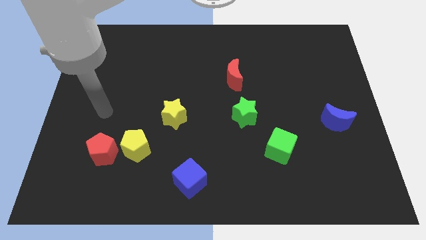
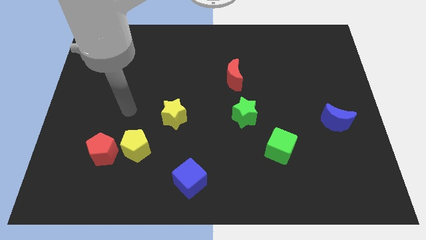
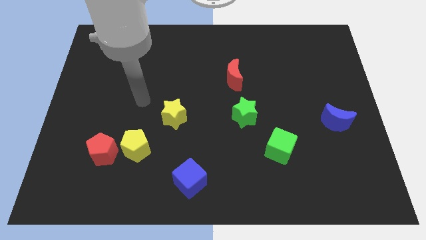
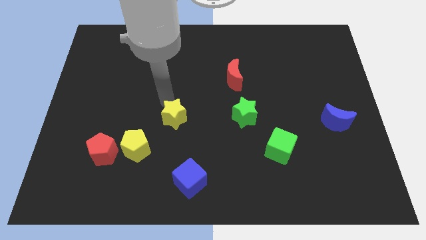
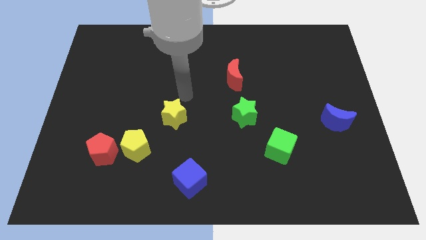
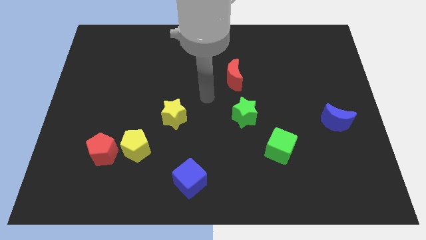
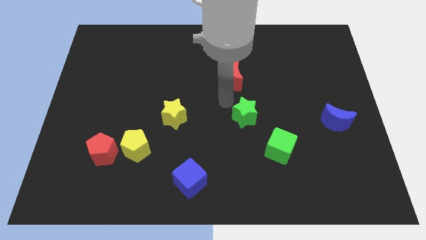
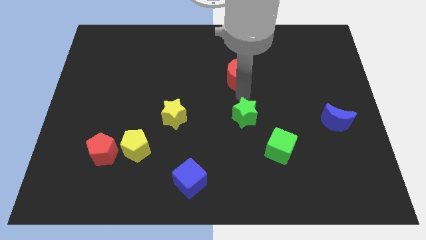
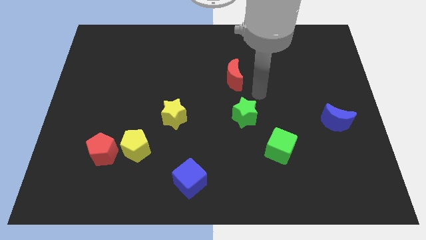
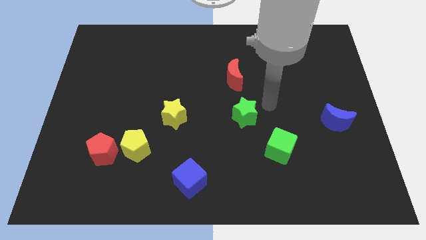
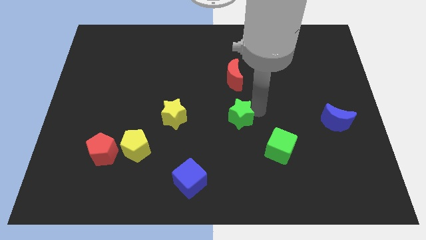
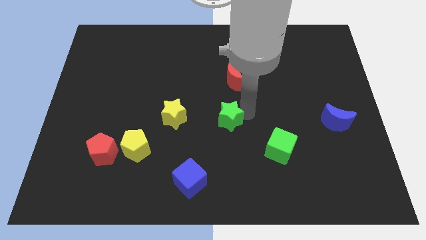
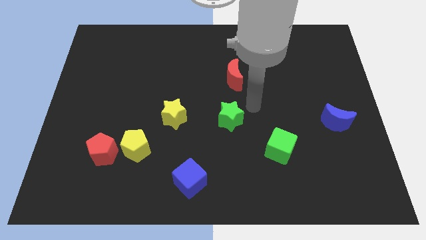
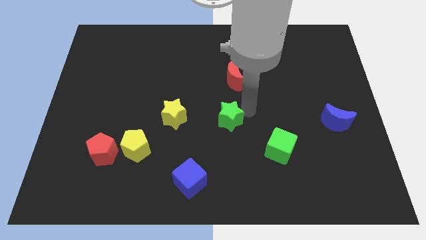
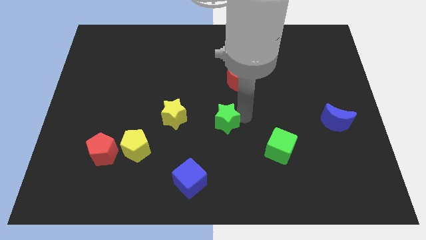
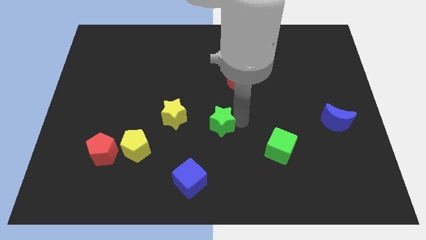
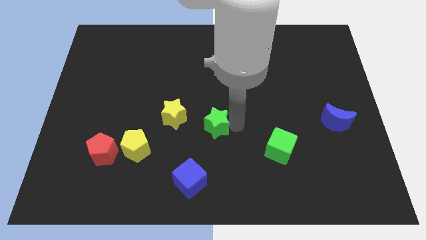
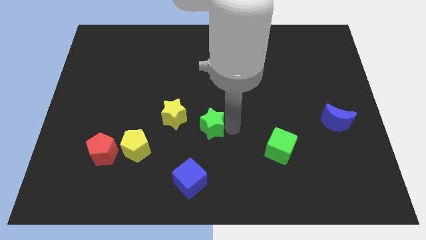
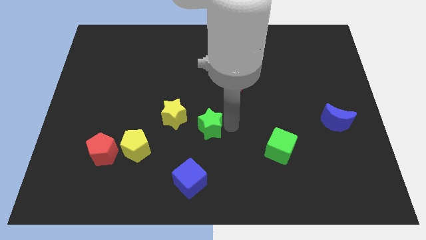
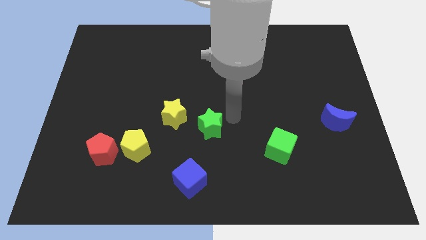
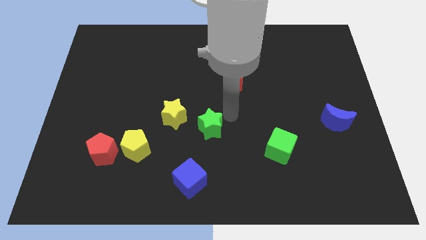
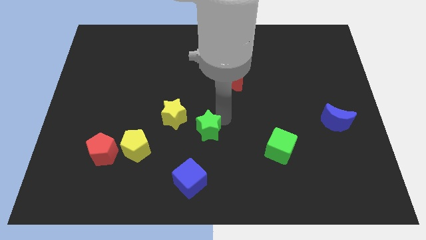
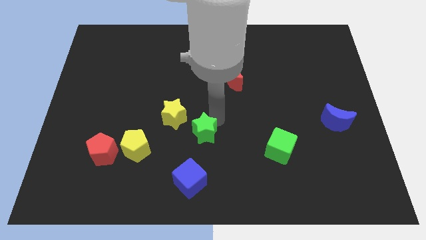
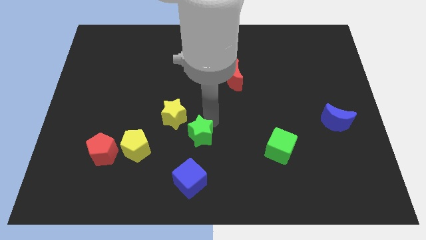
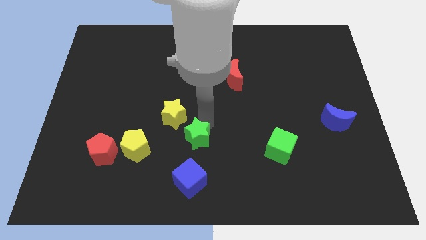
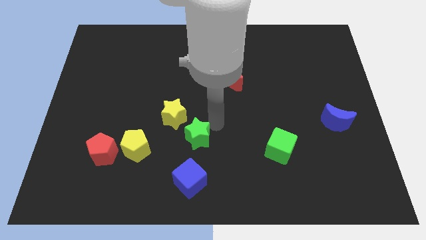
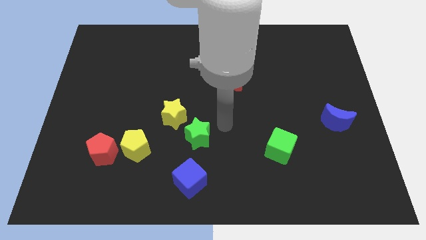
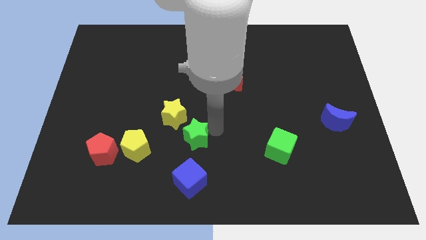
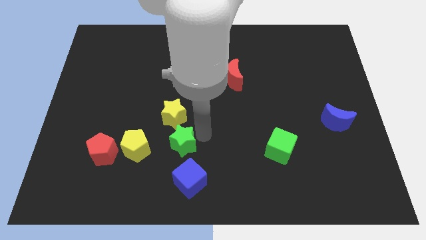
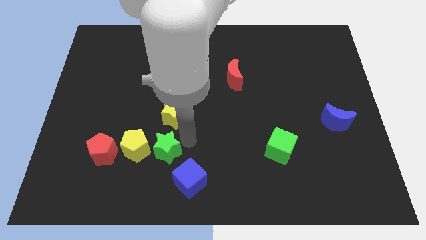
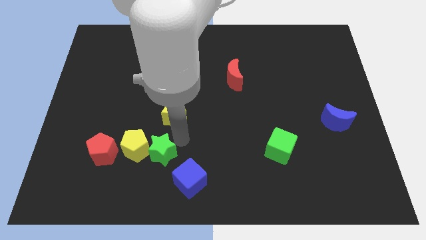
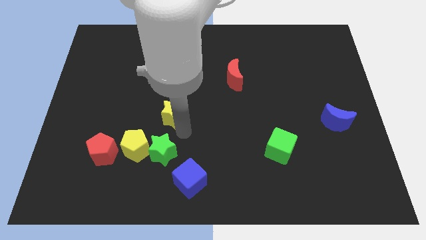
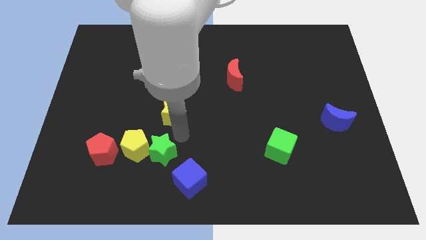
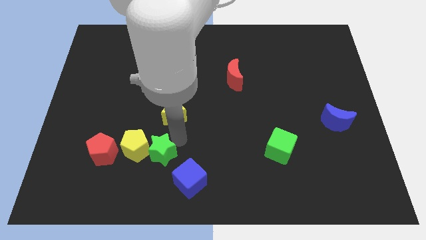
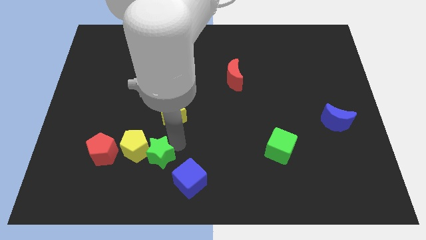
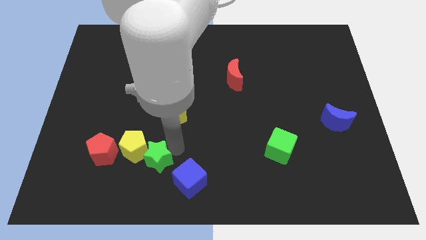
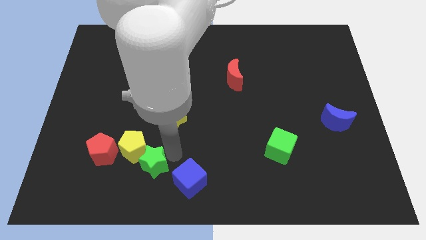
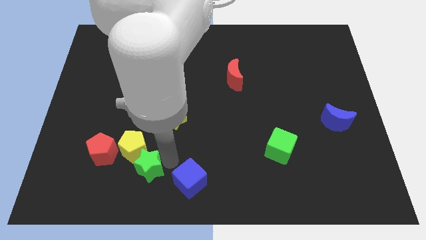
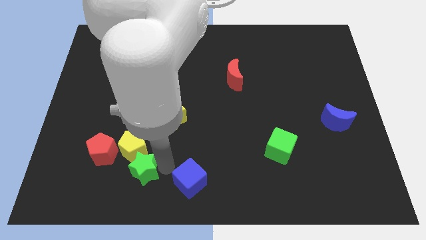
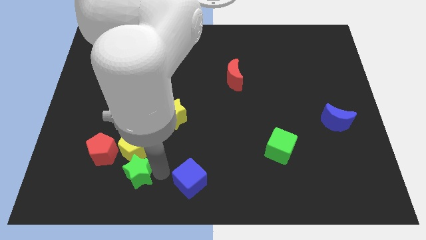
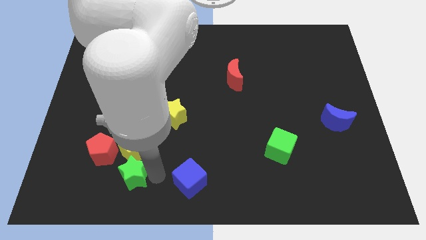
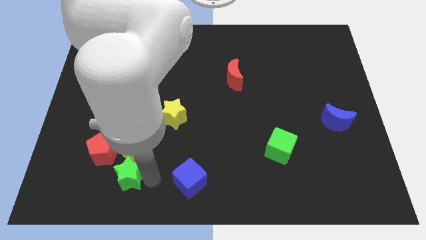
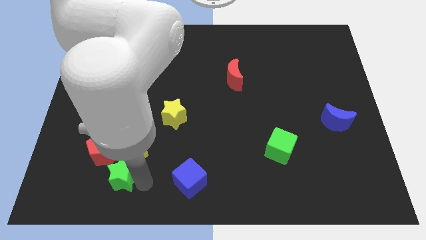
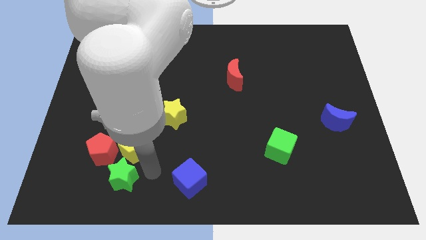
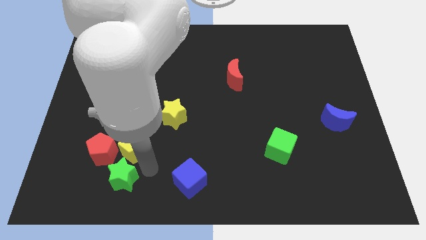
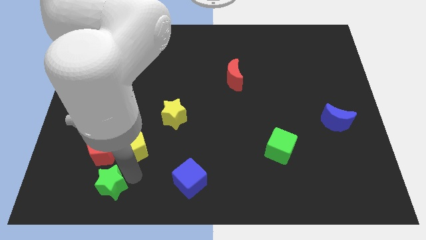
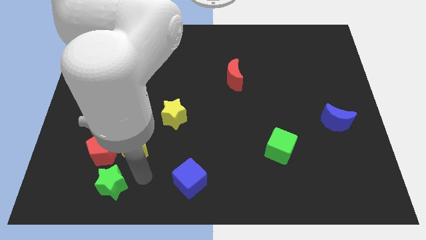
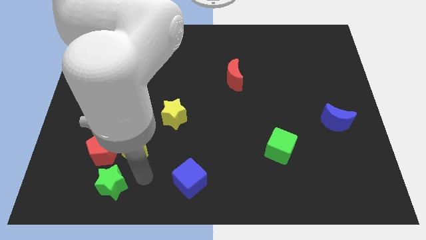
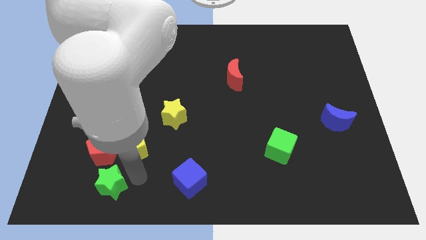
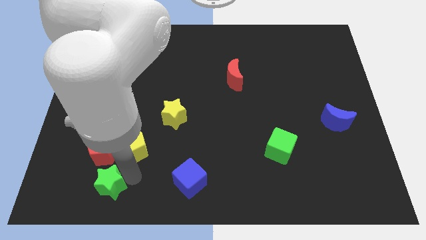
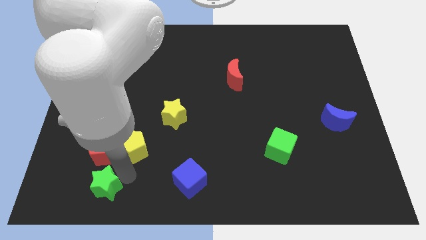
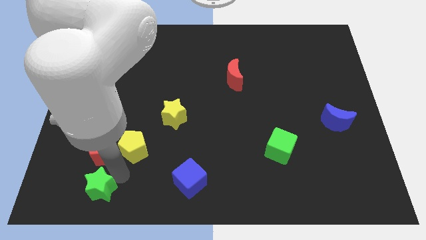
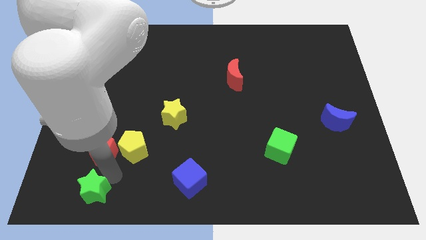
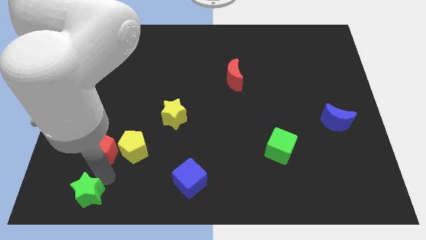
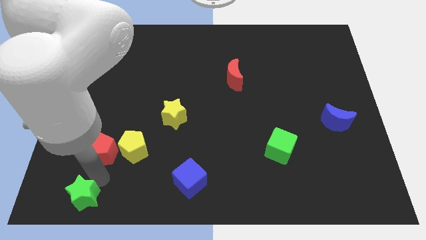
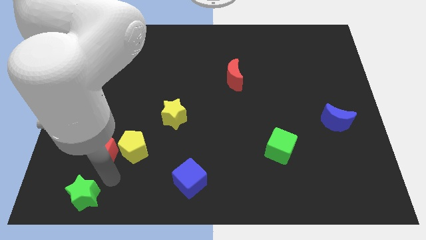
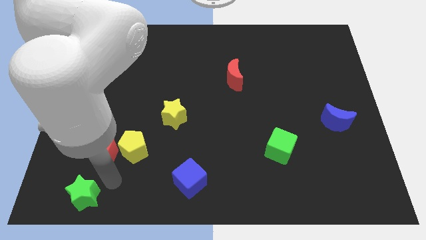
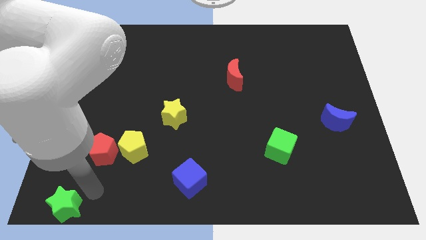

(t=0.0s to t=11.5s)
slide the green star to the bottom left of the board

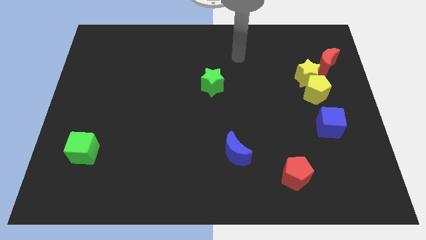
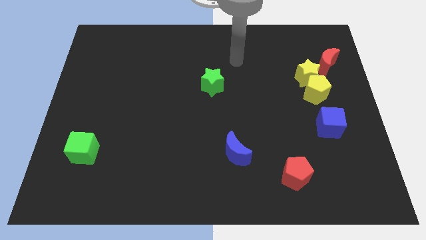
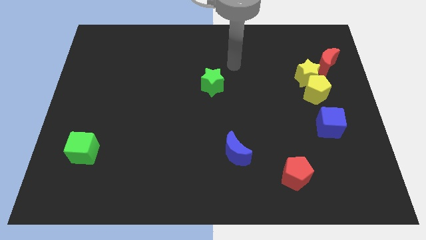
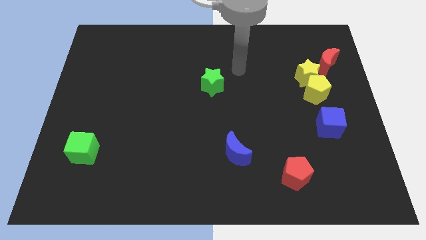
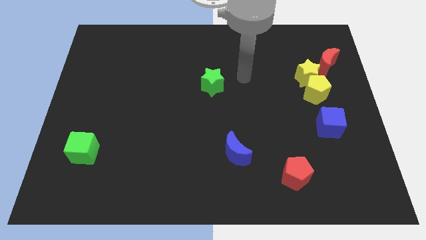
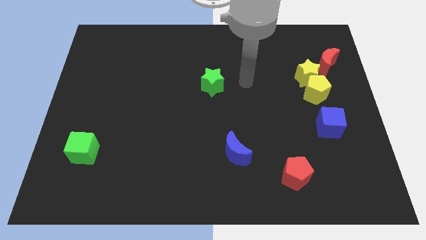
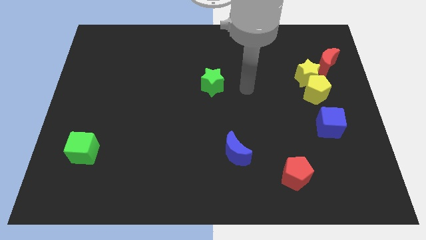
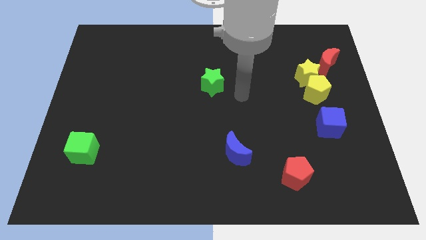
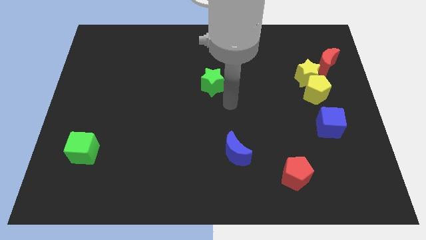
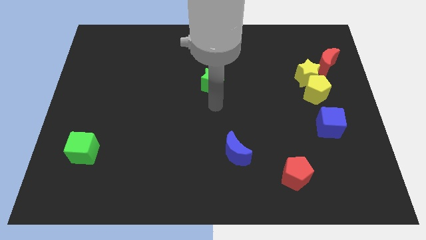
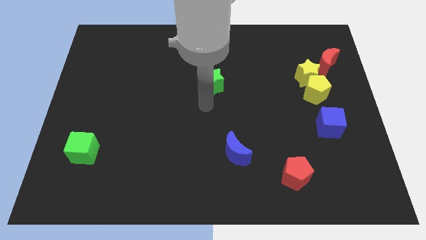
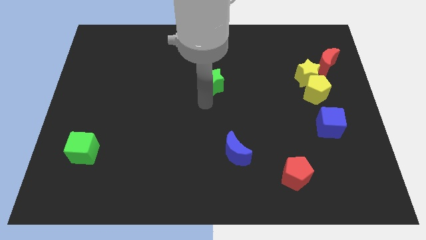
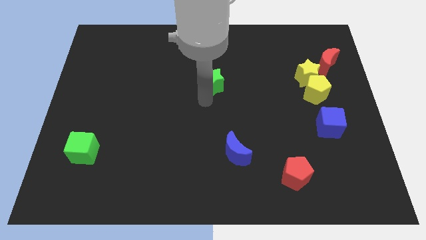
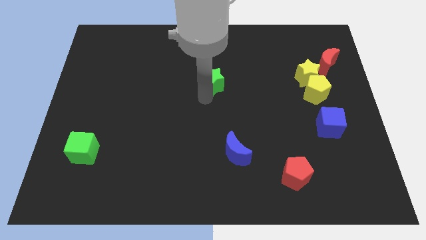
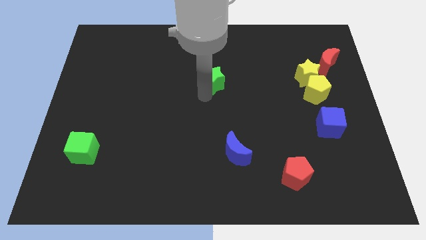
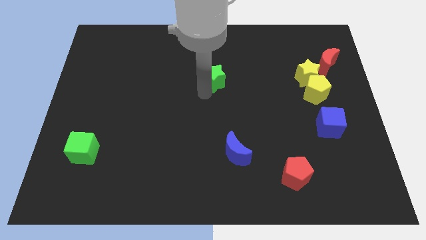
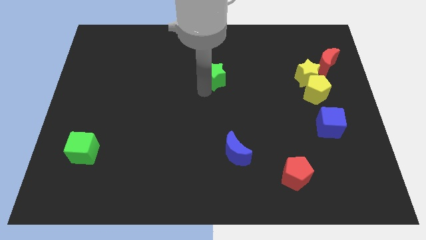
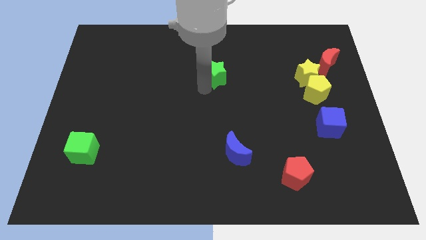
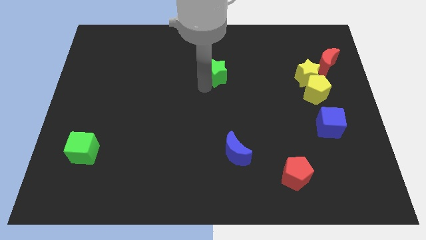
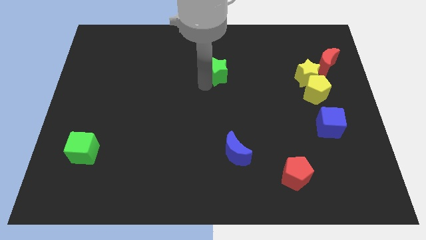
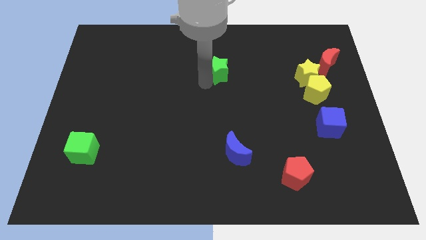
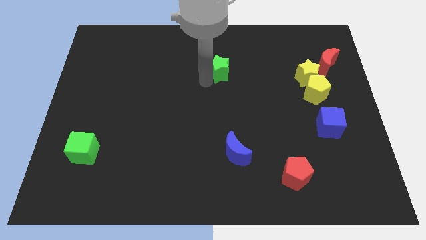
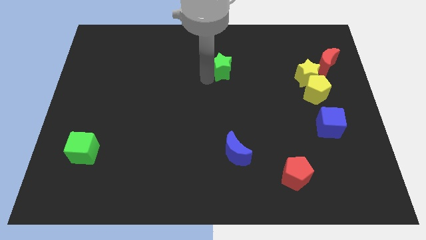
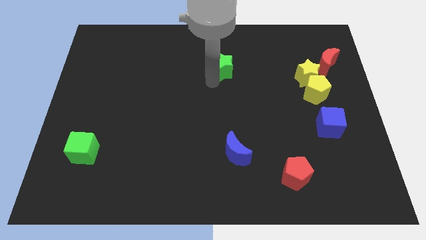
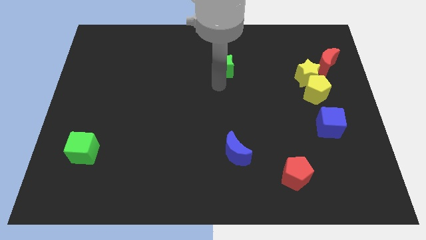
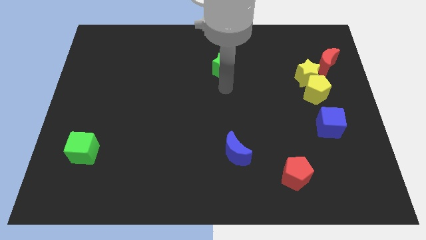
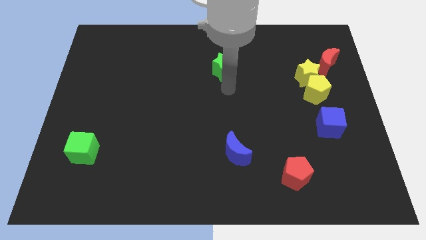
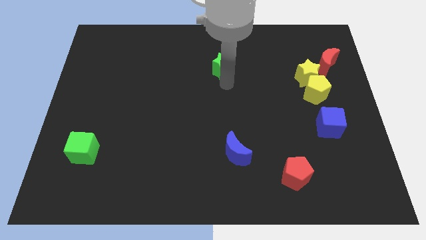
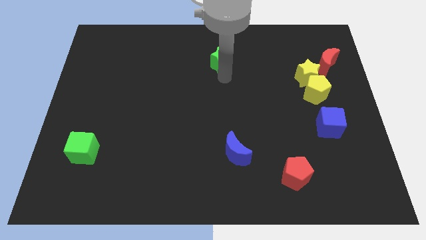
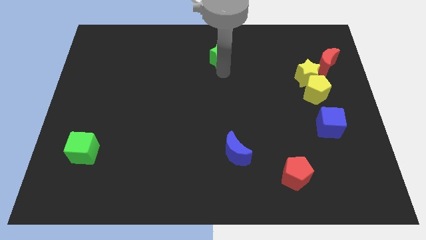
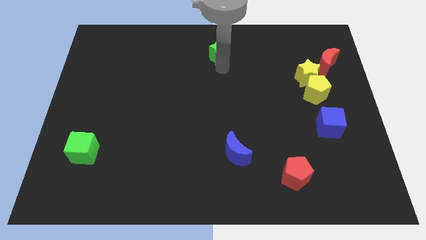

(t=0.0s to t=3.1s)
move the green star to the top side
